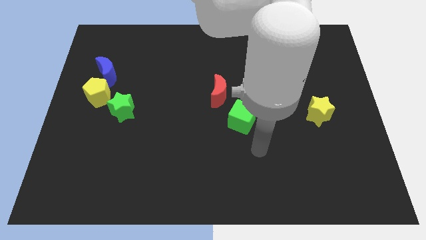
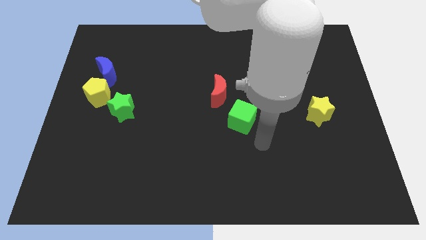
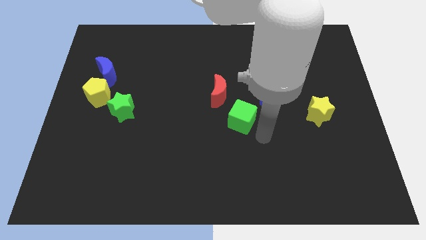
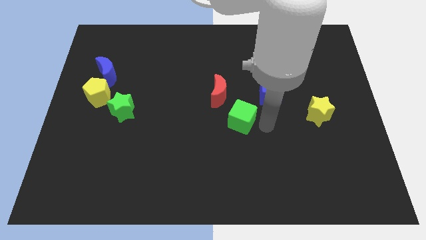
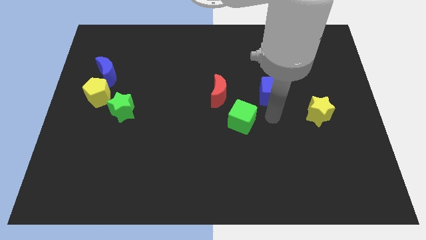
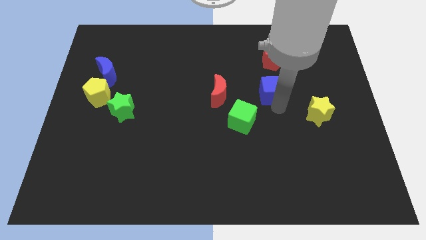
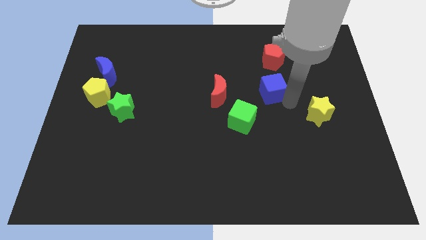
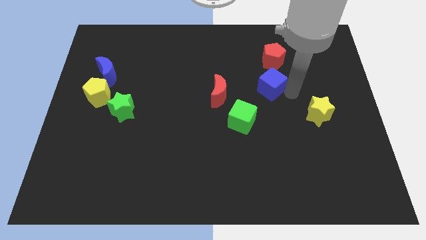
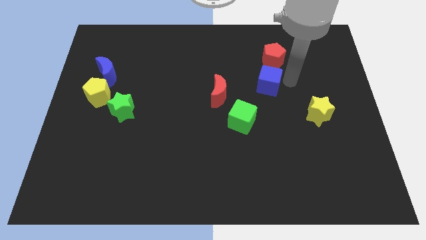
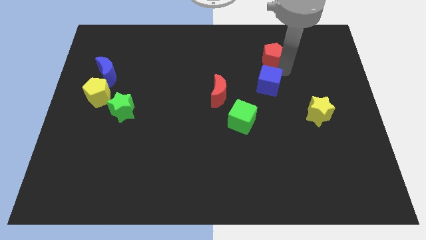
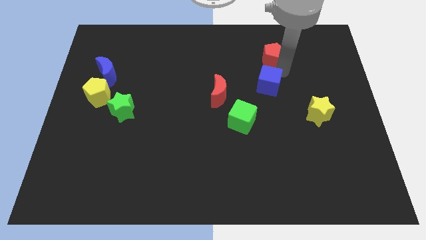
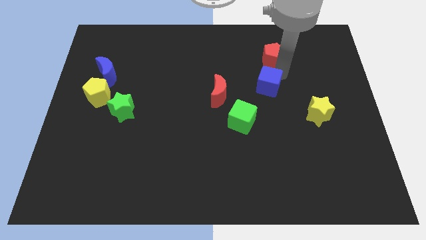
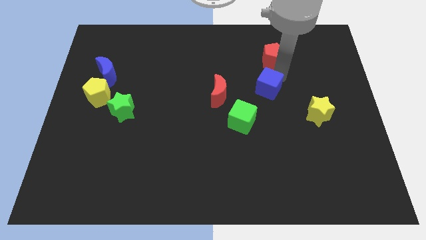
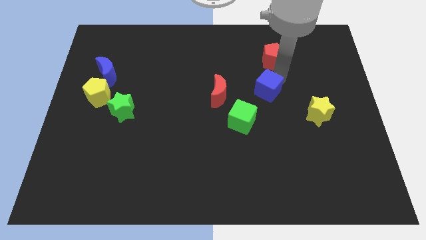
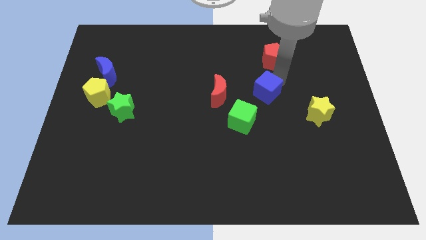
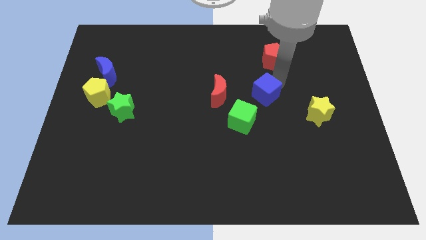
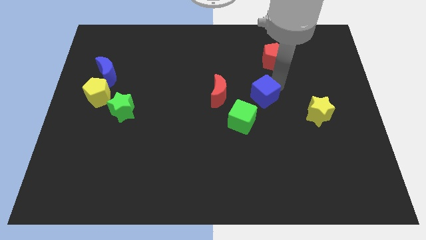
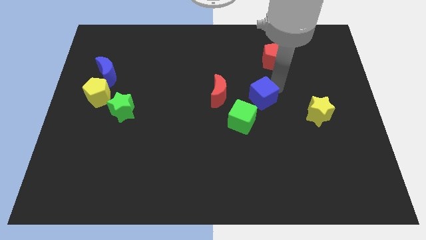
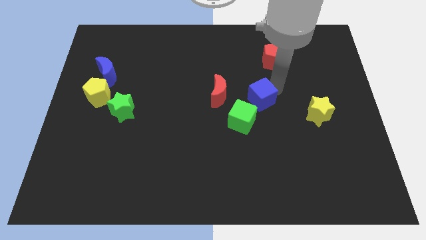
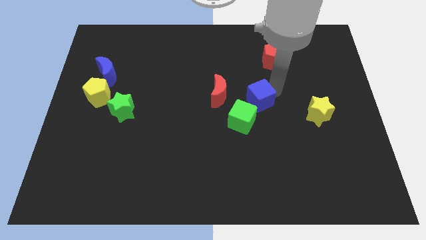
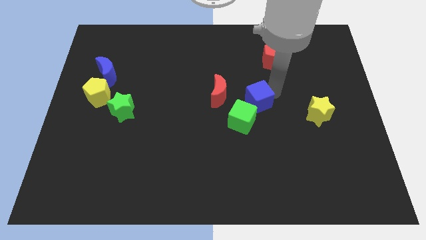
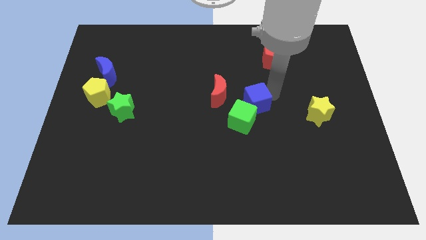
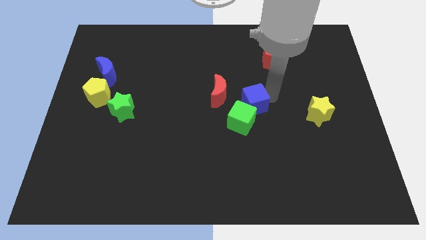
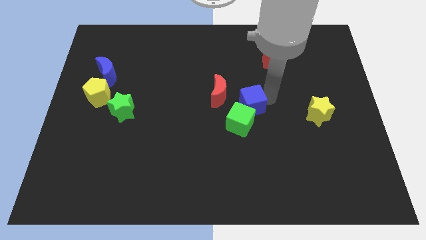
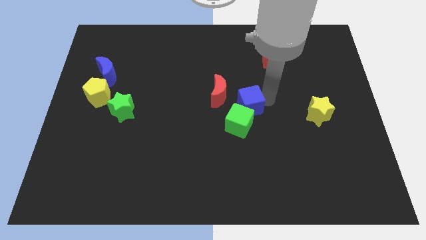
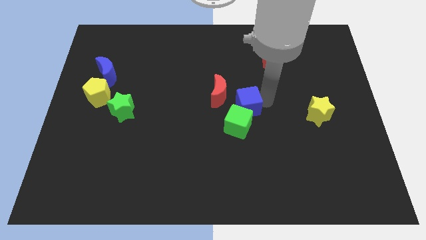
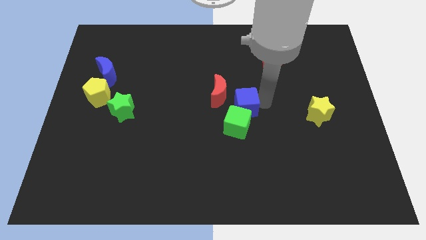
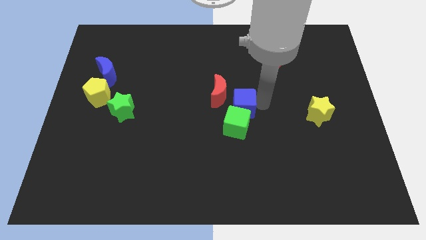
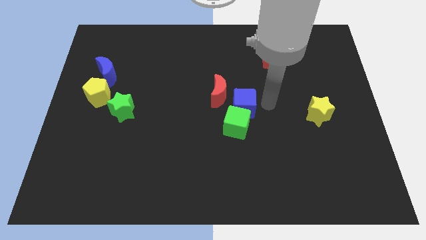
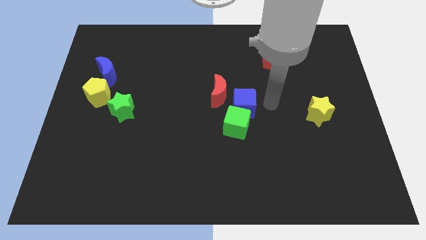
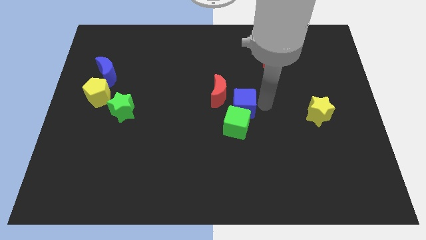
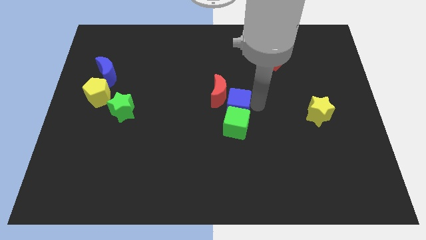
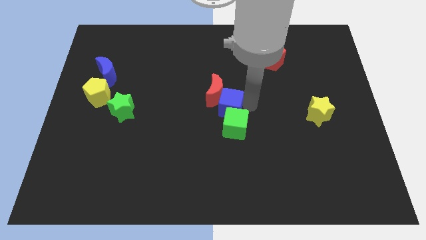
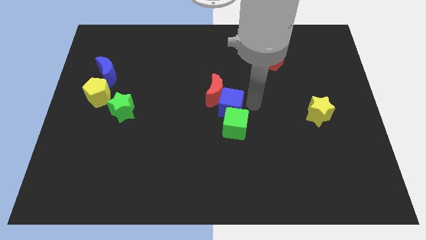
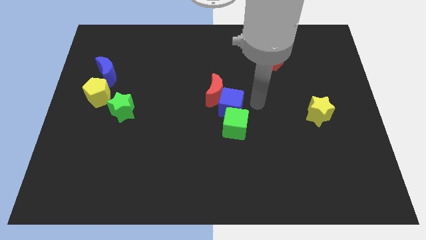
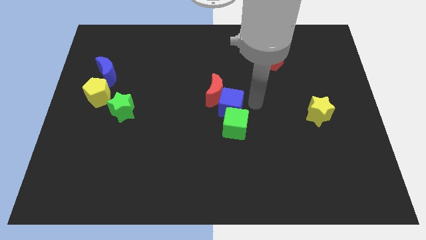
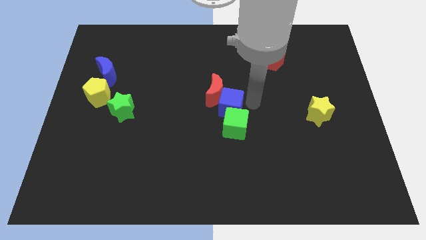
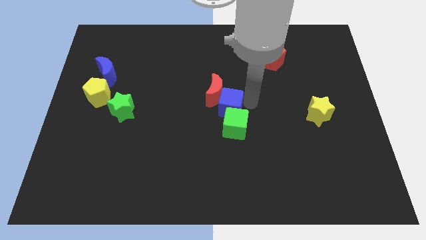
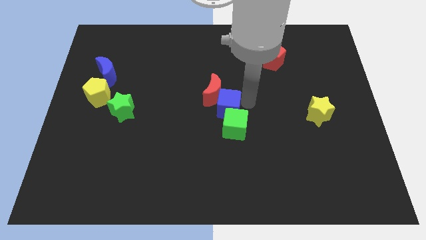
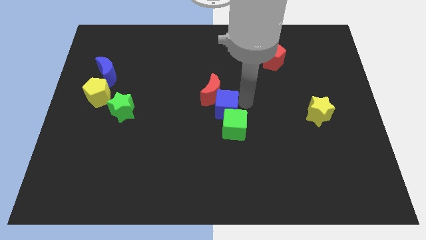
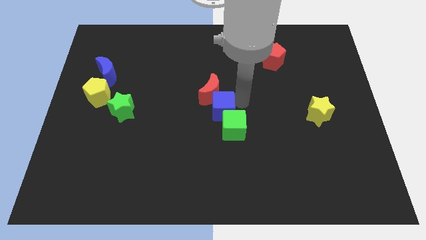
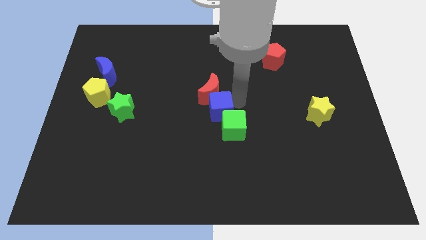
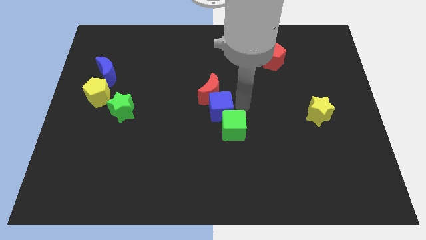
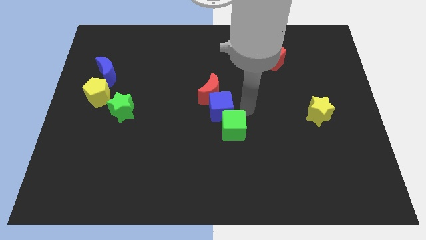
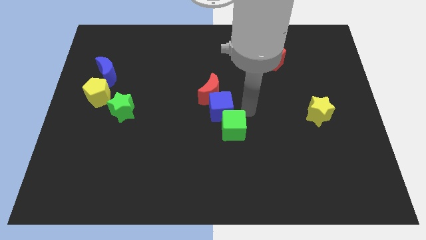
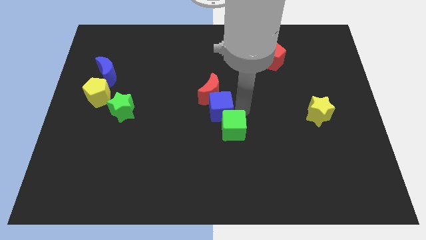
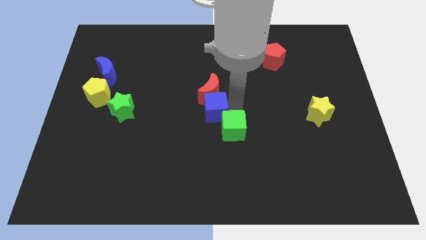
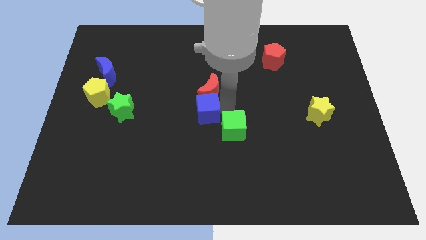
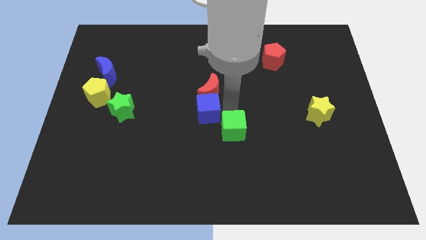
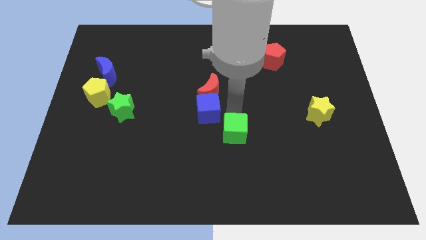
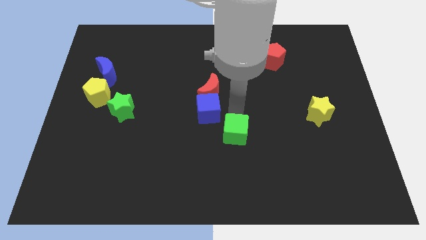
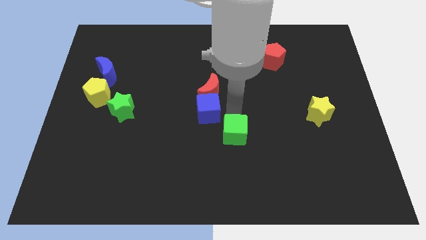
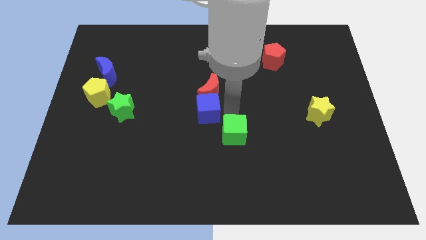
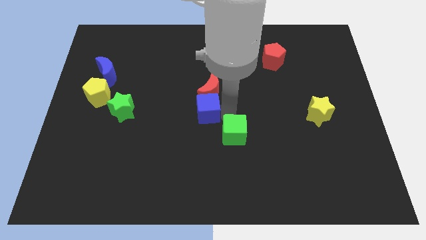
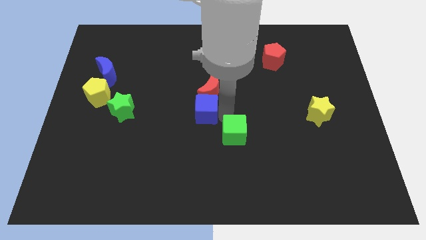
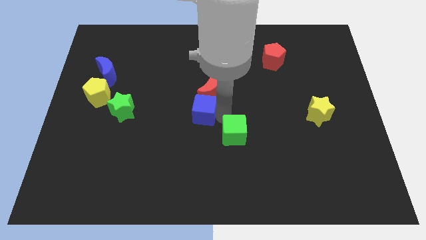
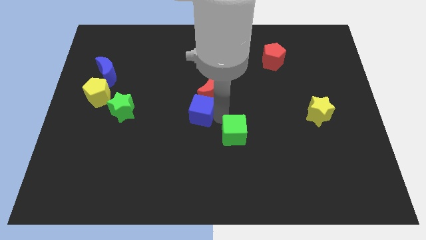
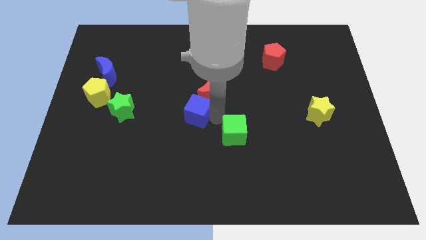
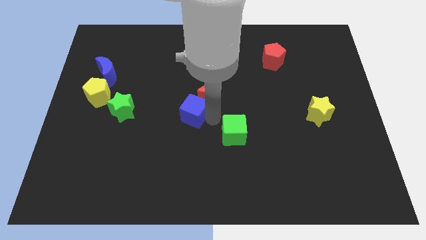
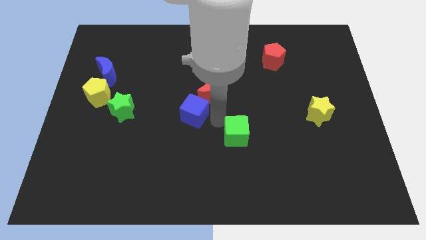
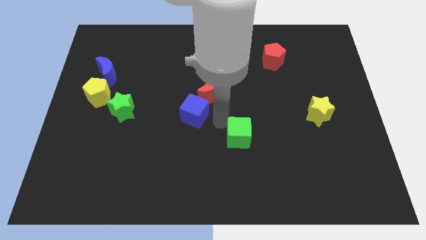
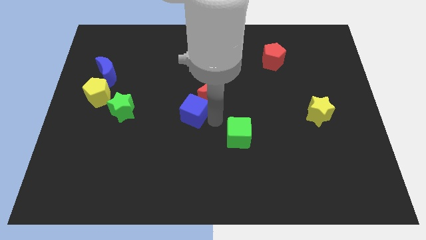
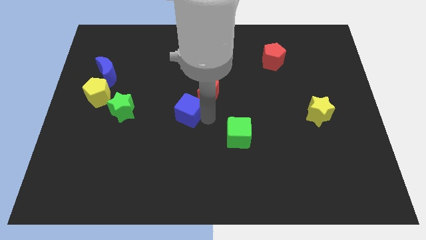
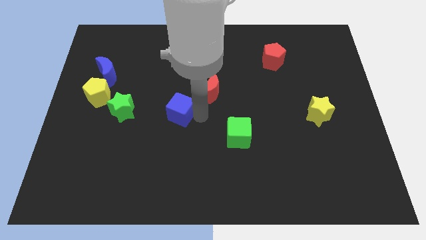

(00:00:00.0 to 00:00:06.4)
push the blue cube to the left

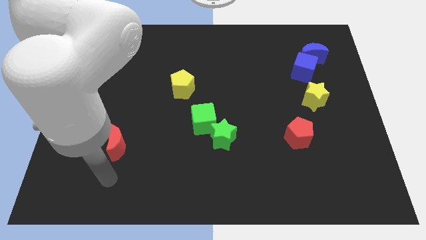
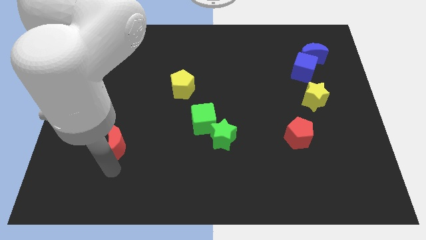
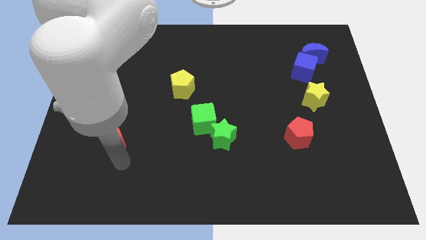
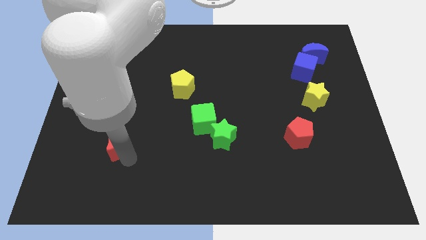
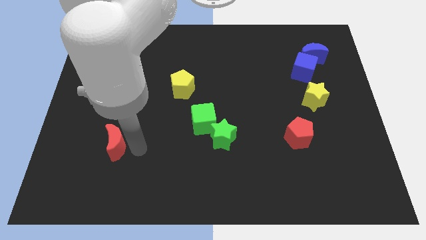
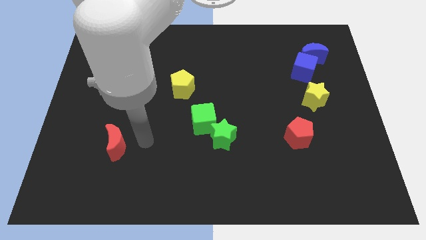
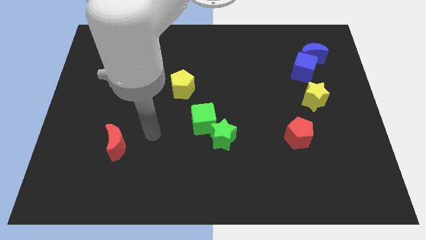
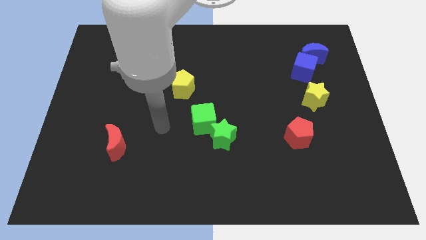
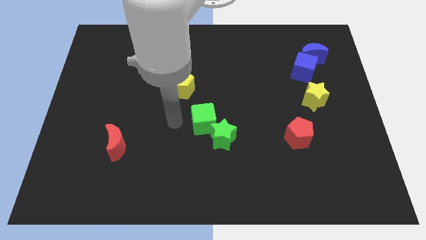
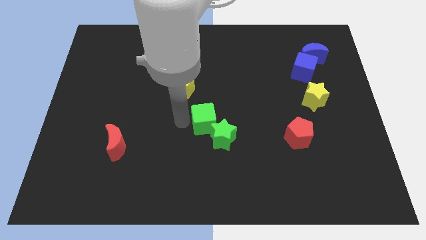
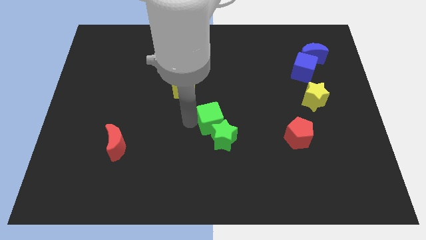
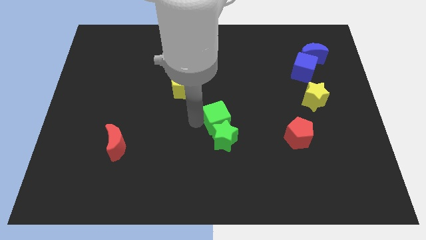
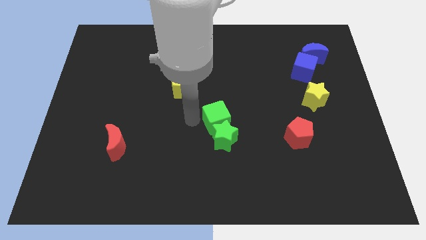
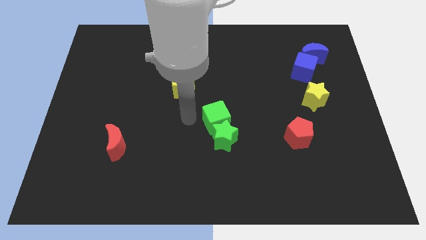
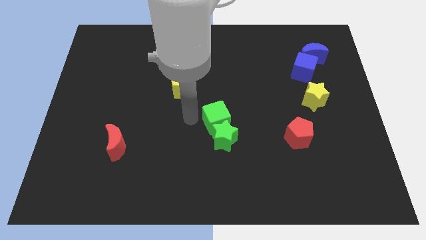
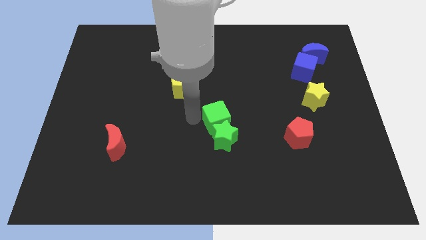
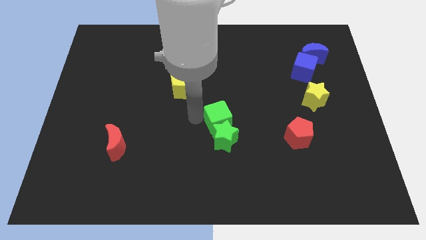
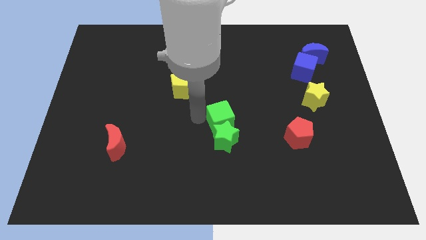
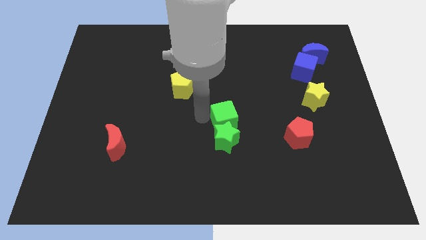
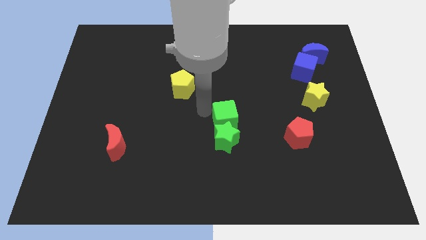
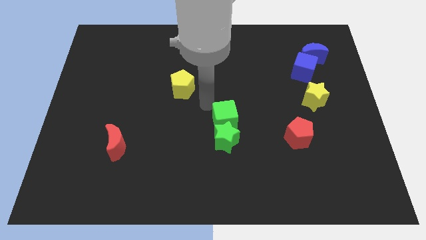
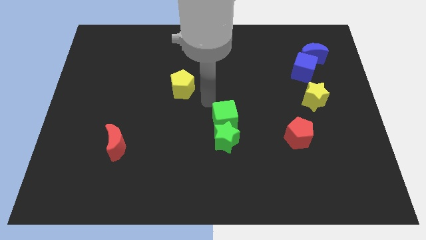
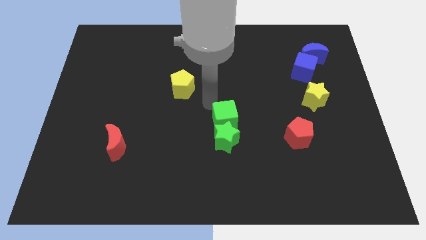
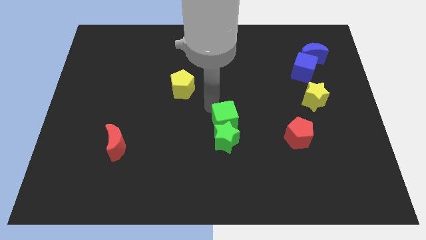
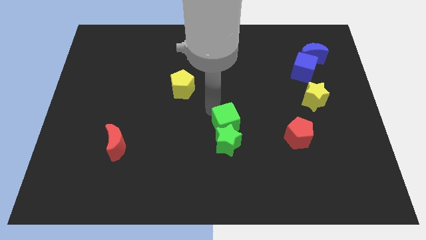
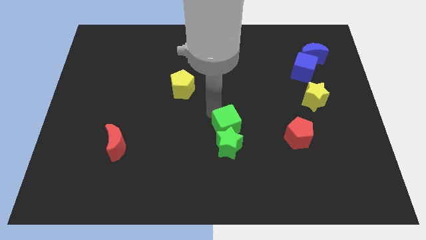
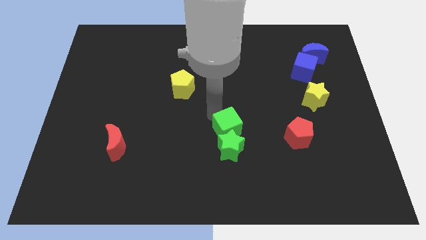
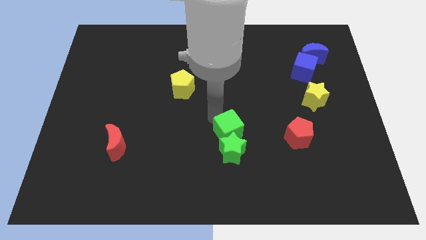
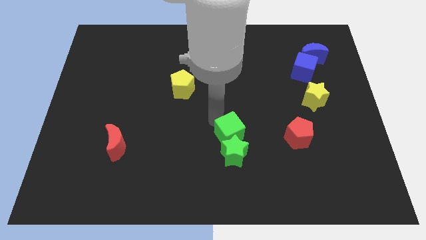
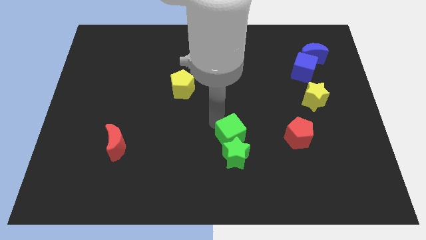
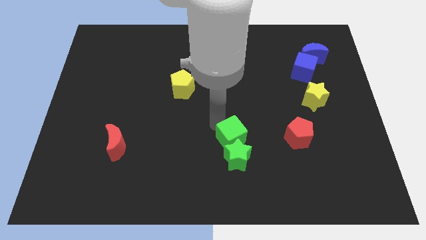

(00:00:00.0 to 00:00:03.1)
push the green cube diagonally down and right a bit
